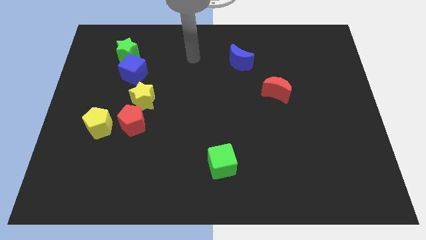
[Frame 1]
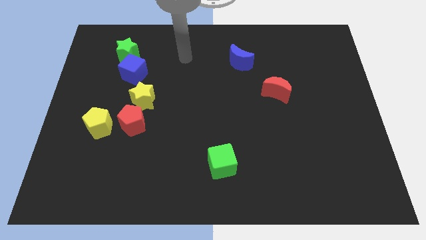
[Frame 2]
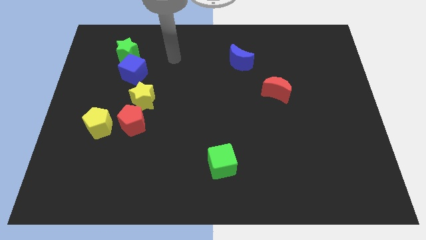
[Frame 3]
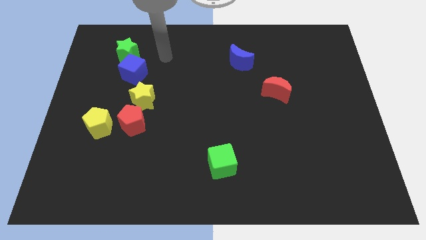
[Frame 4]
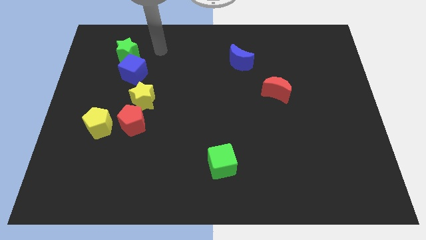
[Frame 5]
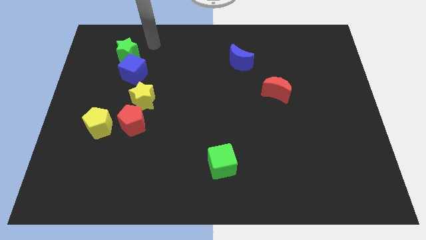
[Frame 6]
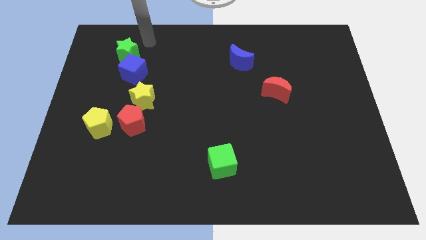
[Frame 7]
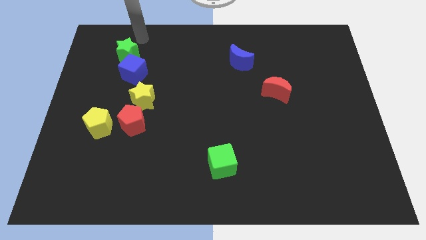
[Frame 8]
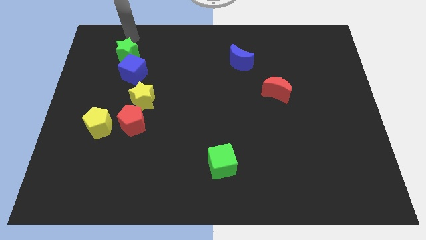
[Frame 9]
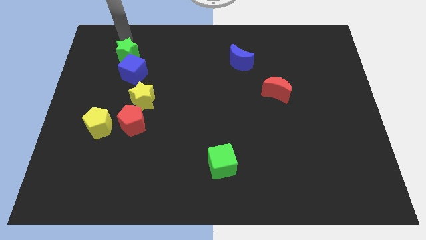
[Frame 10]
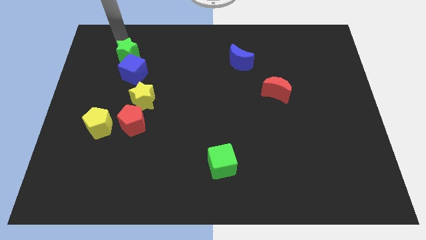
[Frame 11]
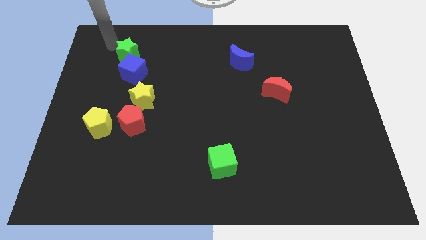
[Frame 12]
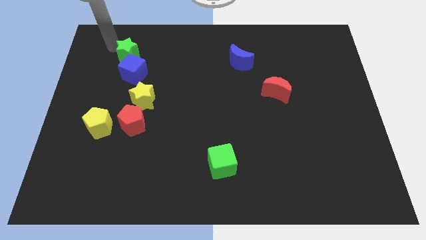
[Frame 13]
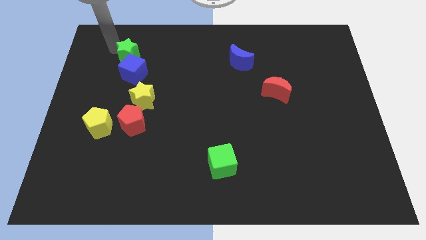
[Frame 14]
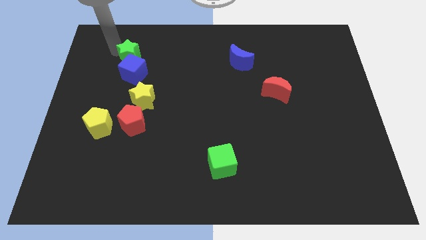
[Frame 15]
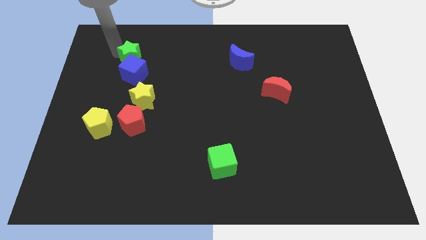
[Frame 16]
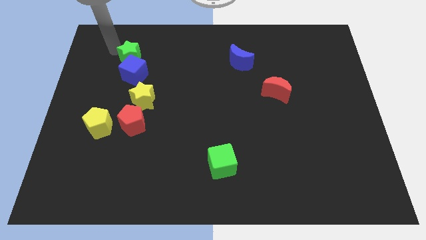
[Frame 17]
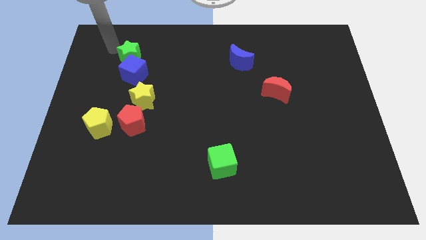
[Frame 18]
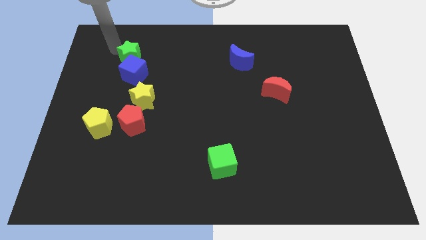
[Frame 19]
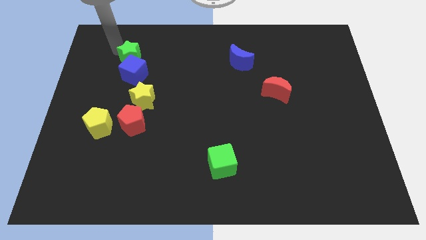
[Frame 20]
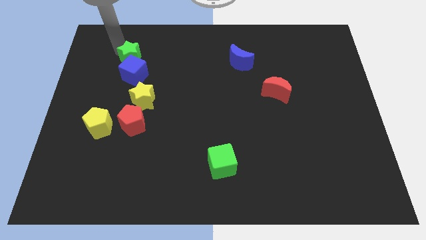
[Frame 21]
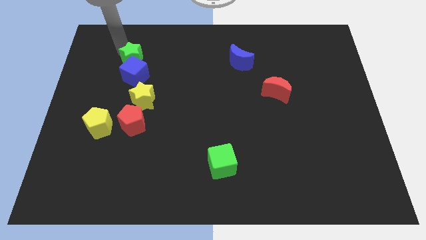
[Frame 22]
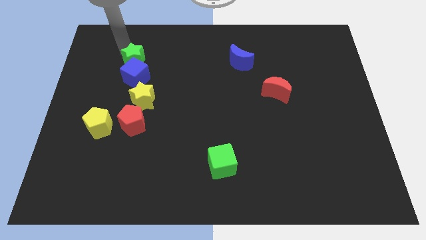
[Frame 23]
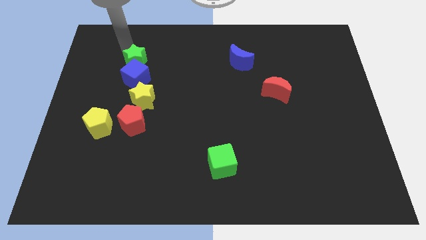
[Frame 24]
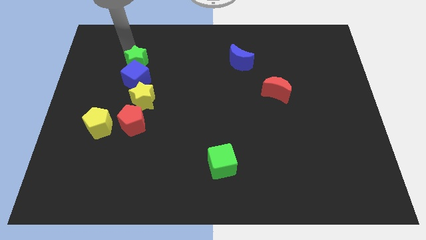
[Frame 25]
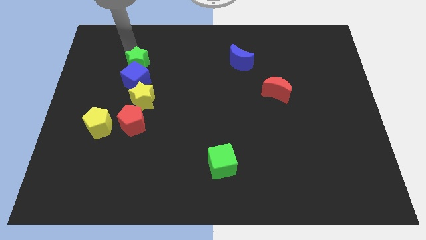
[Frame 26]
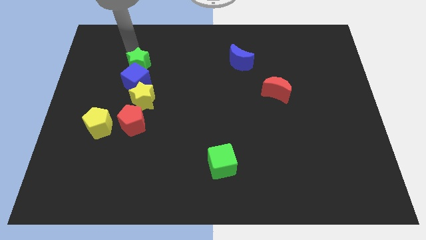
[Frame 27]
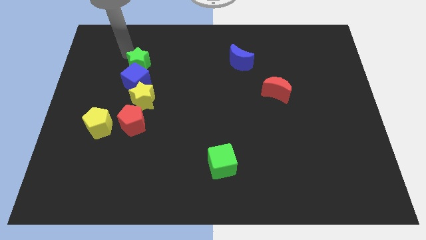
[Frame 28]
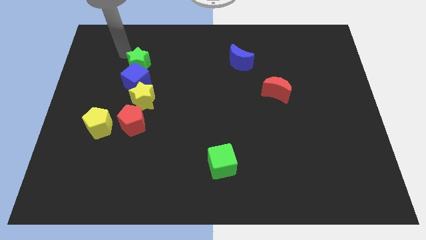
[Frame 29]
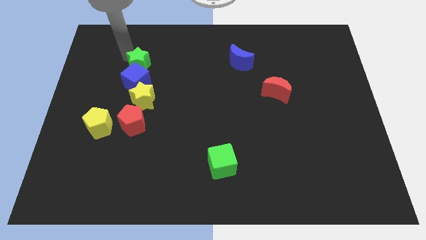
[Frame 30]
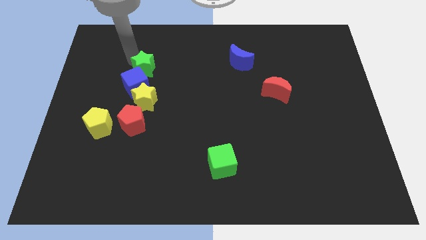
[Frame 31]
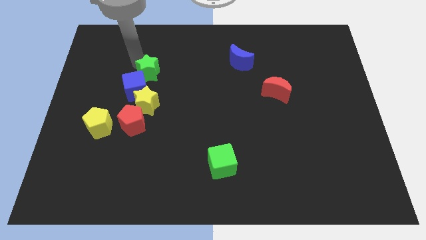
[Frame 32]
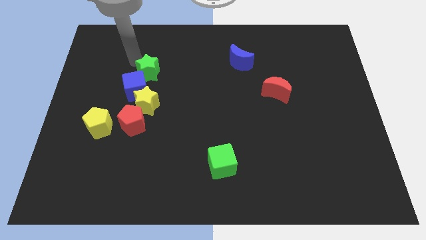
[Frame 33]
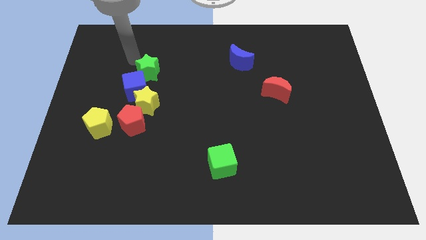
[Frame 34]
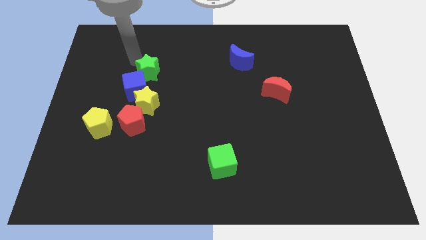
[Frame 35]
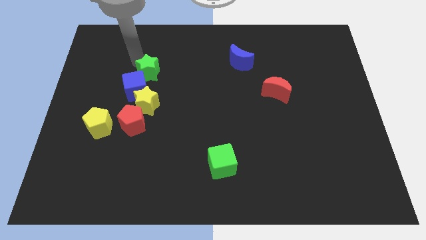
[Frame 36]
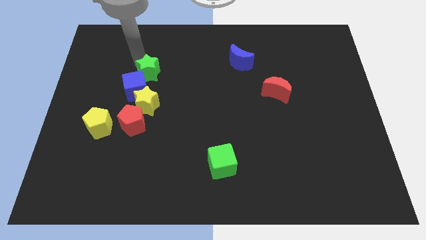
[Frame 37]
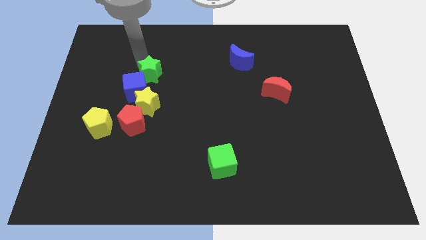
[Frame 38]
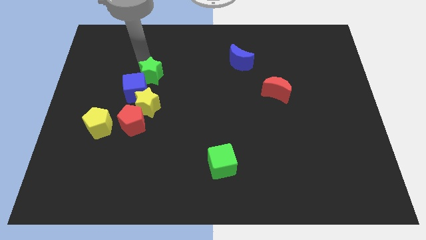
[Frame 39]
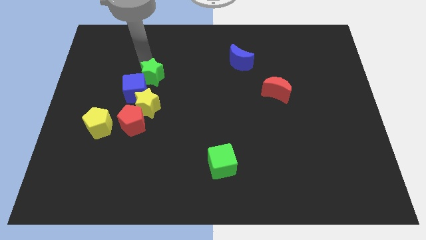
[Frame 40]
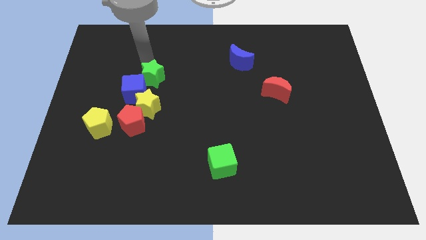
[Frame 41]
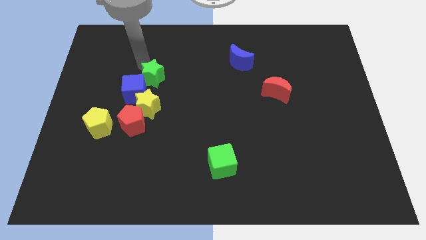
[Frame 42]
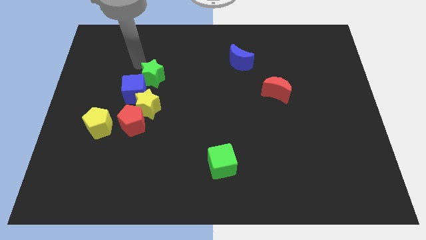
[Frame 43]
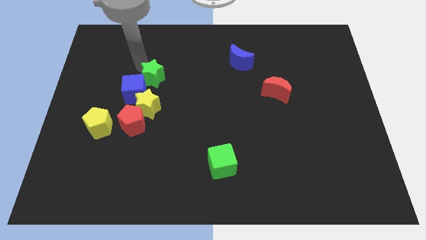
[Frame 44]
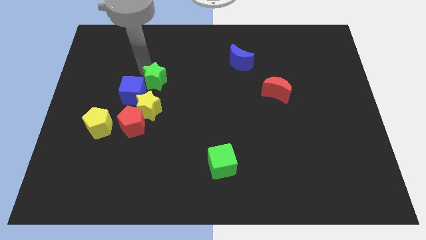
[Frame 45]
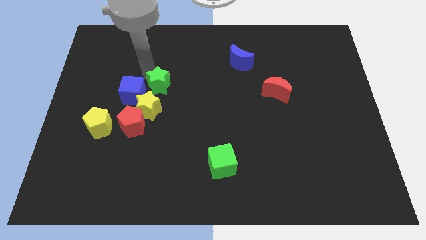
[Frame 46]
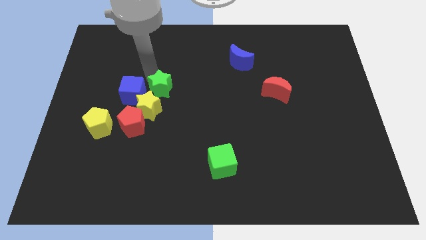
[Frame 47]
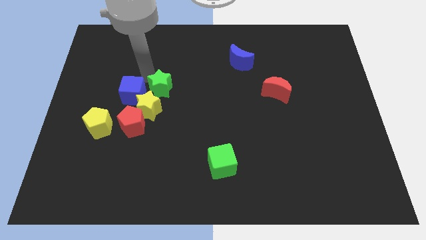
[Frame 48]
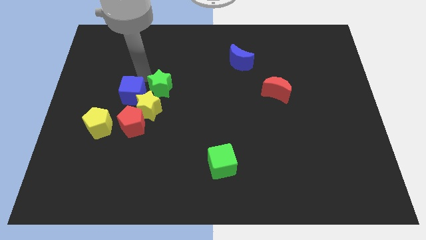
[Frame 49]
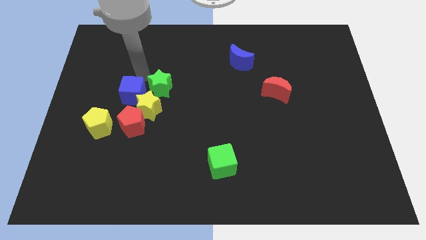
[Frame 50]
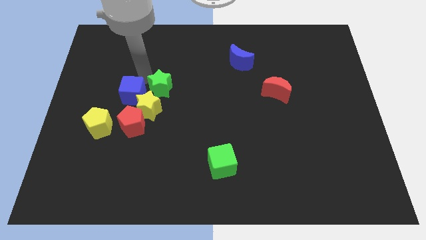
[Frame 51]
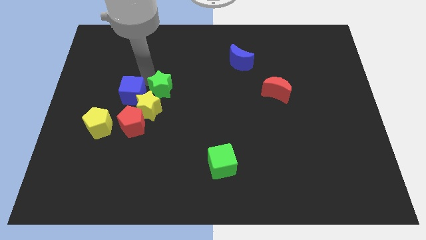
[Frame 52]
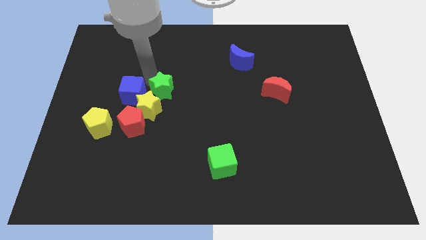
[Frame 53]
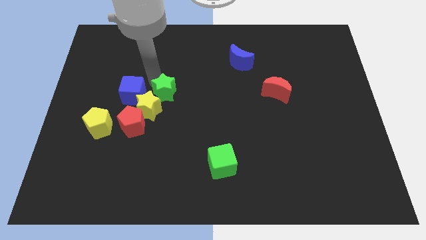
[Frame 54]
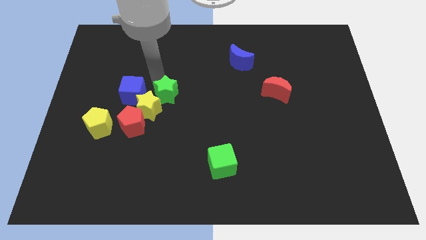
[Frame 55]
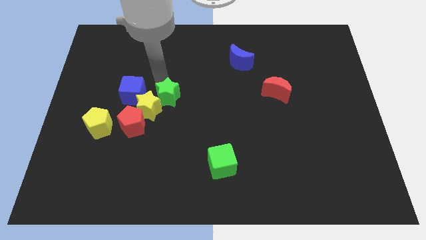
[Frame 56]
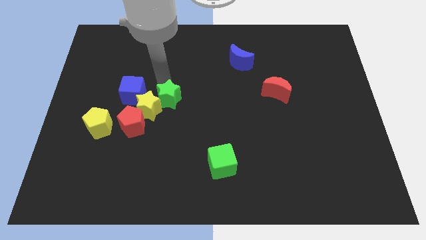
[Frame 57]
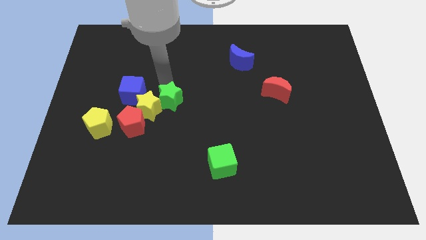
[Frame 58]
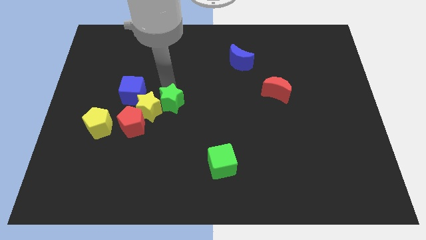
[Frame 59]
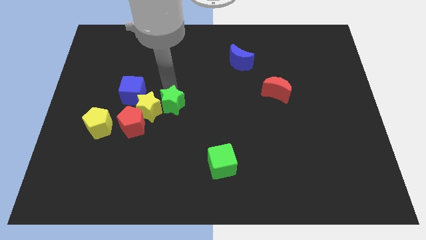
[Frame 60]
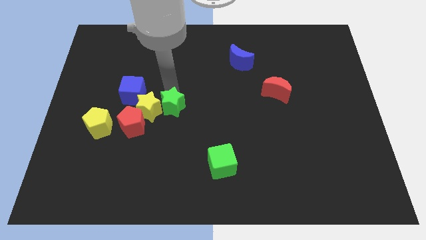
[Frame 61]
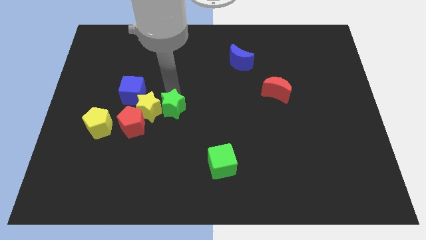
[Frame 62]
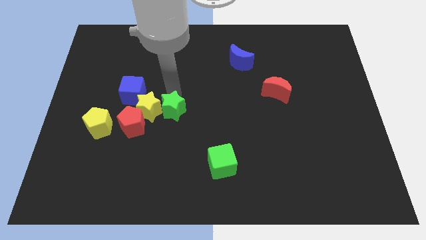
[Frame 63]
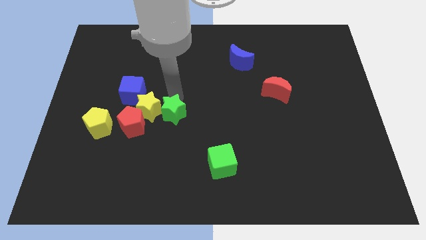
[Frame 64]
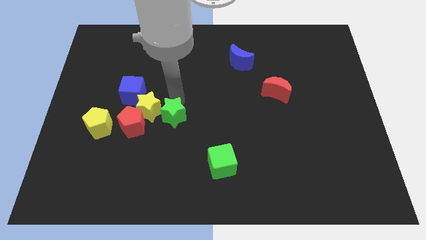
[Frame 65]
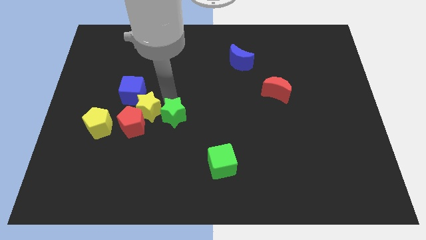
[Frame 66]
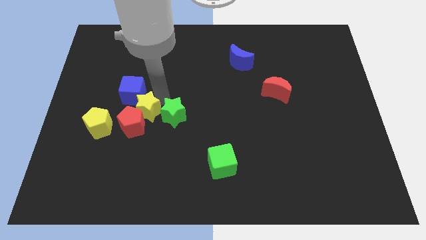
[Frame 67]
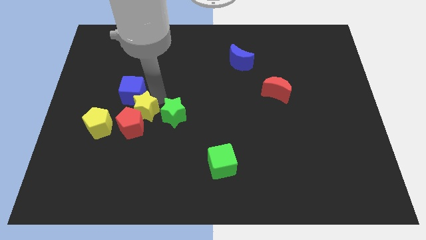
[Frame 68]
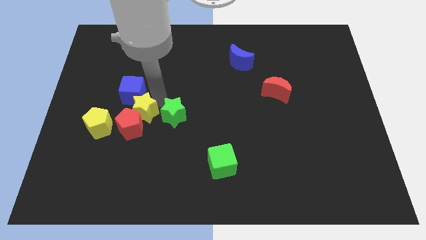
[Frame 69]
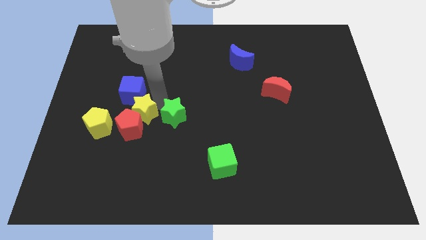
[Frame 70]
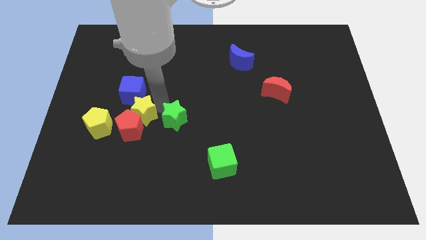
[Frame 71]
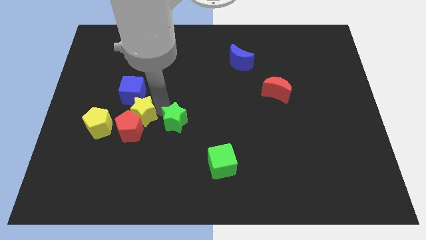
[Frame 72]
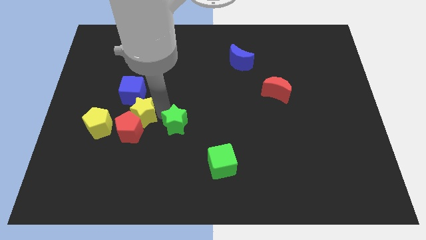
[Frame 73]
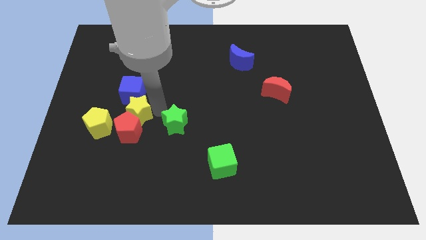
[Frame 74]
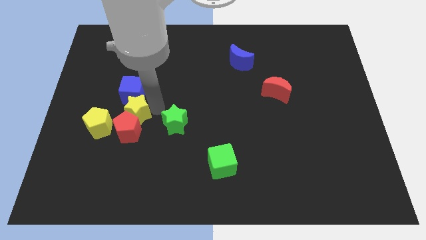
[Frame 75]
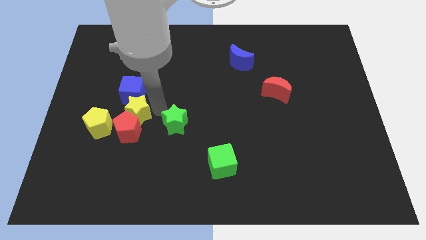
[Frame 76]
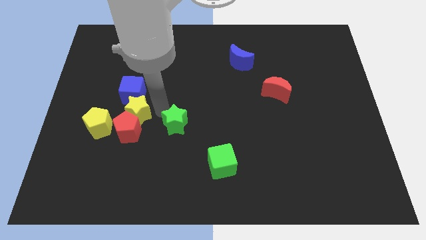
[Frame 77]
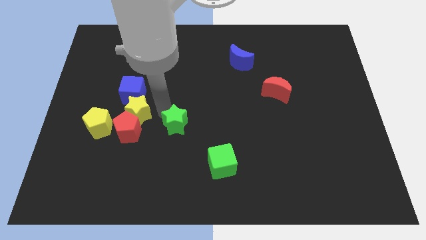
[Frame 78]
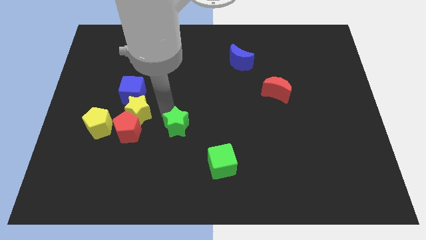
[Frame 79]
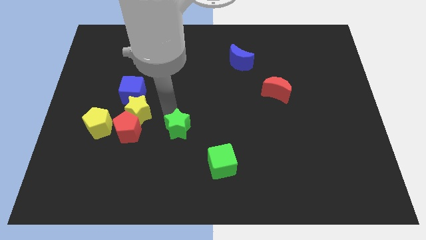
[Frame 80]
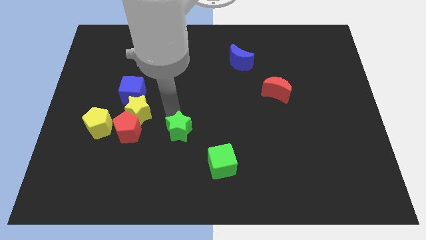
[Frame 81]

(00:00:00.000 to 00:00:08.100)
move the green star diagonally up and to the left of the green cube
